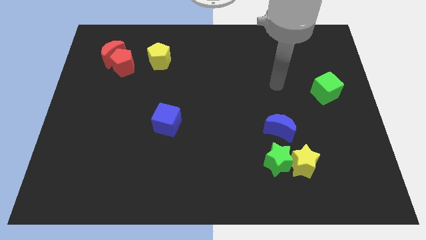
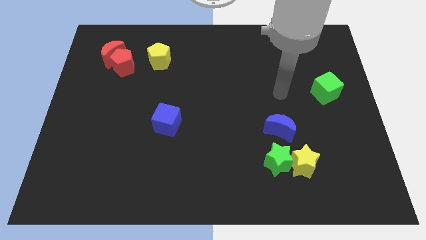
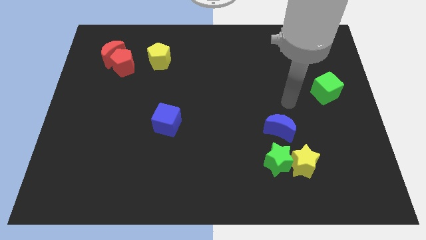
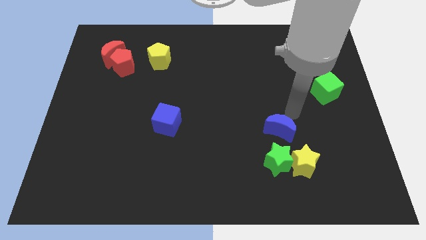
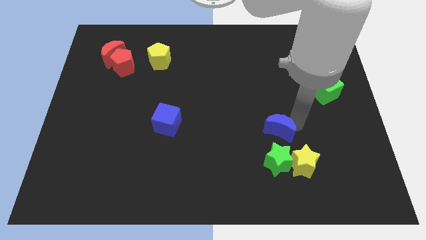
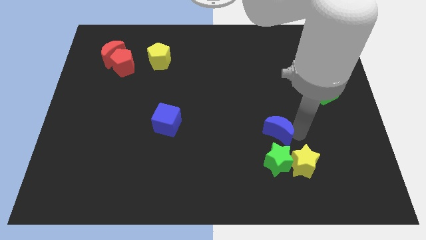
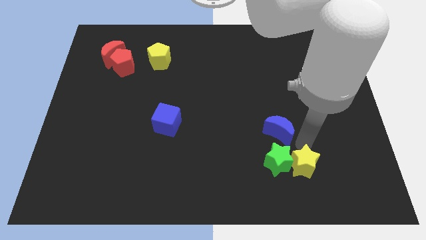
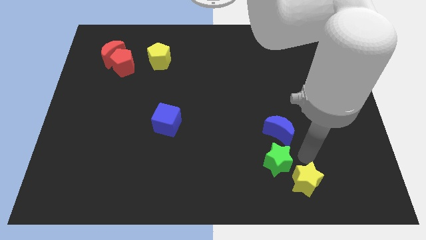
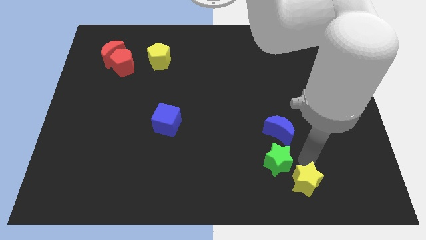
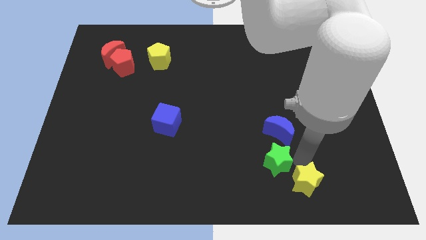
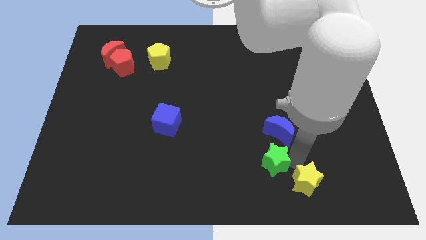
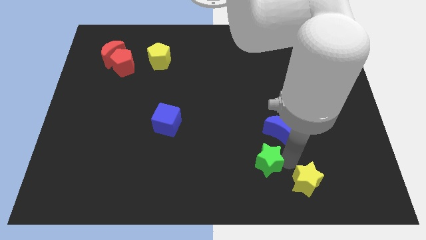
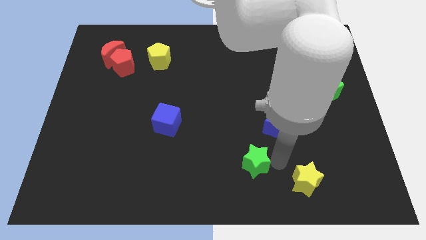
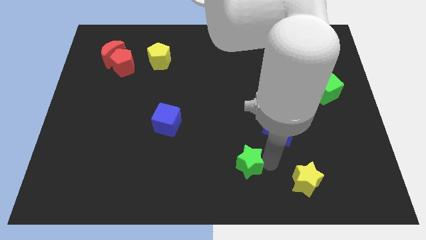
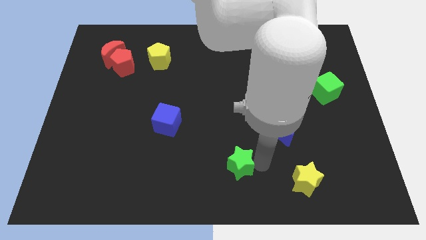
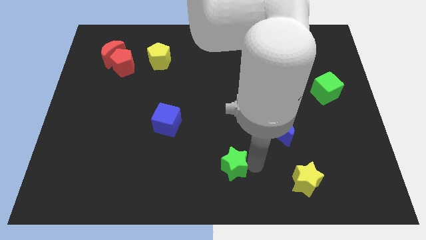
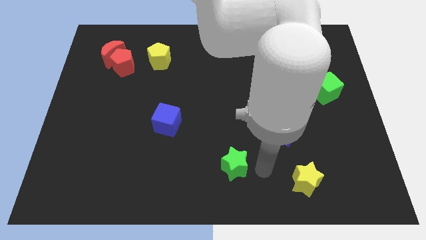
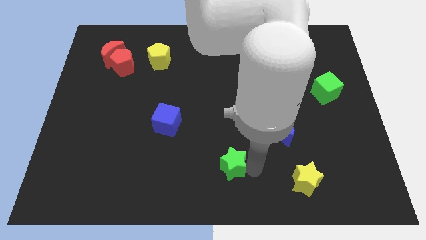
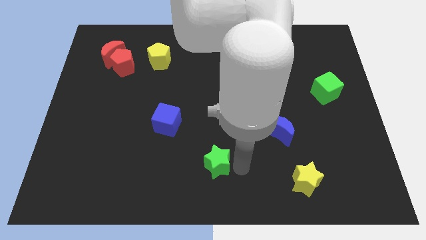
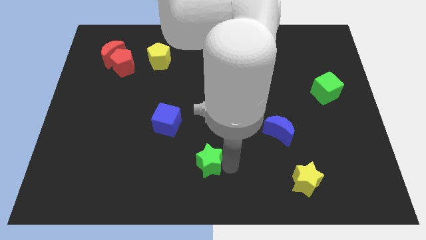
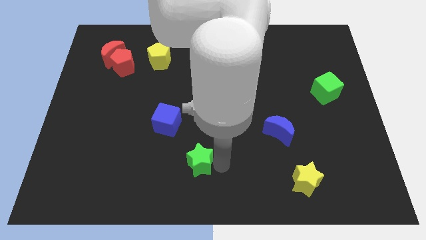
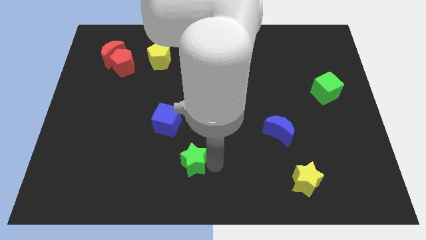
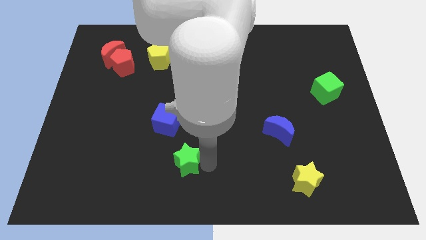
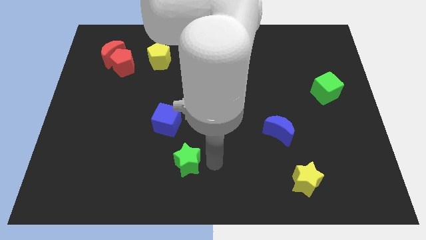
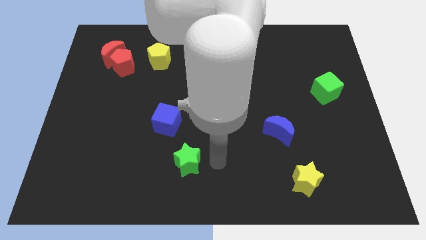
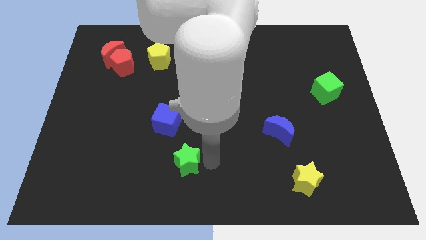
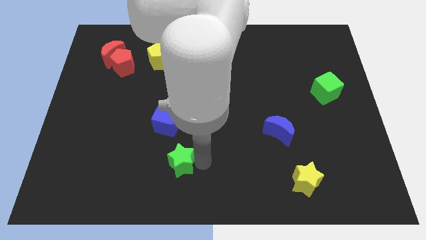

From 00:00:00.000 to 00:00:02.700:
slide the green star to the left

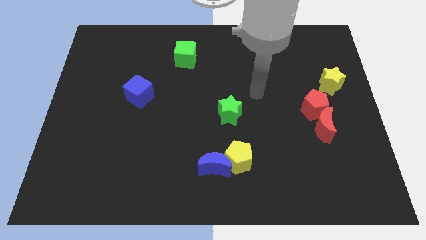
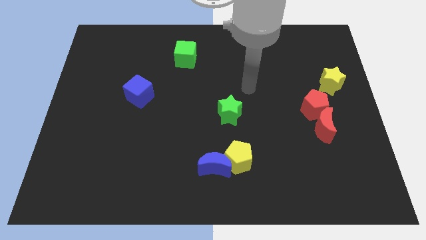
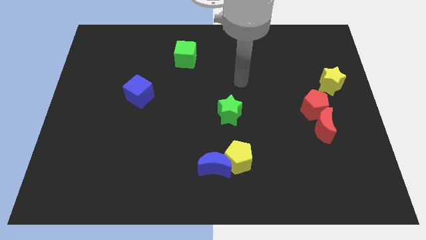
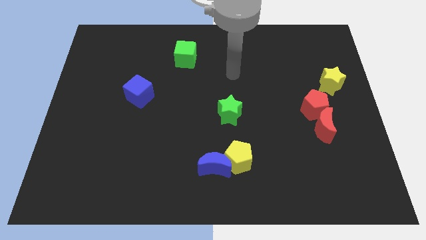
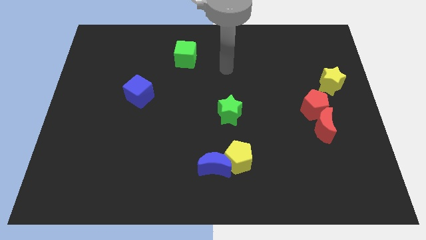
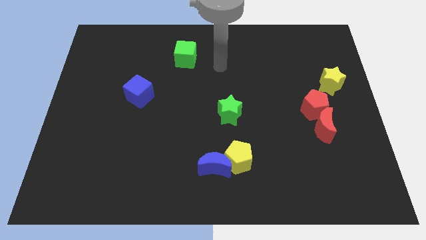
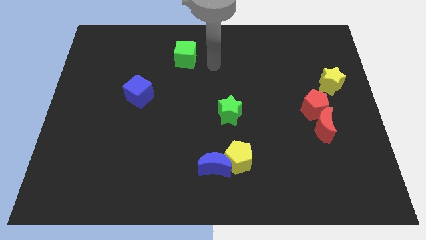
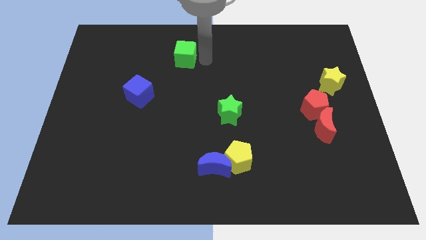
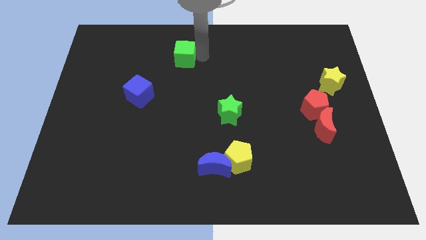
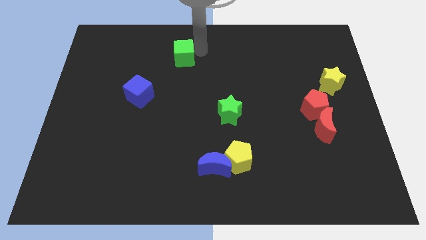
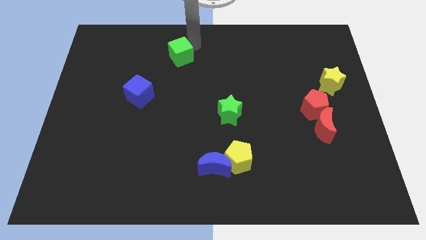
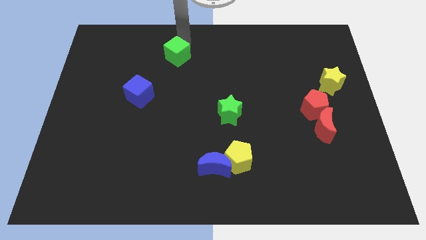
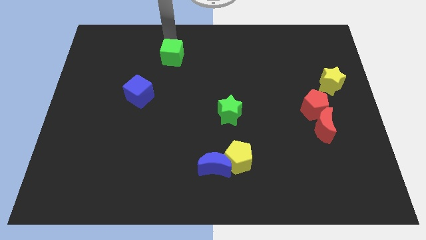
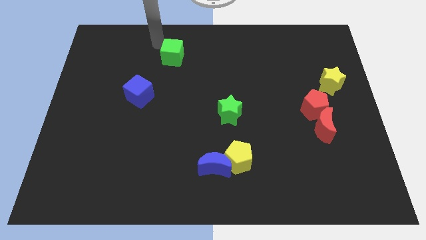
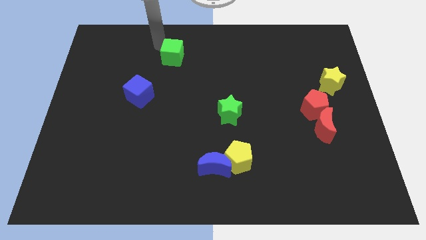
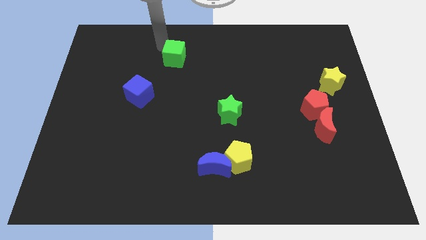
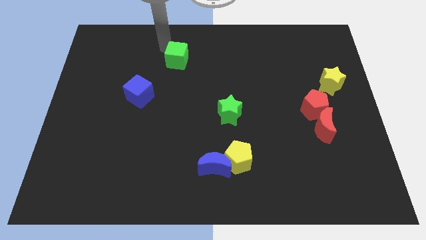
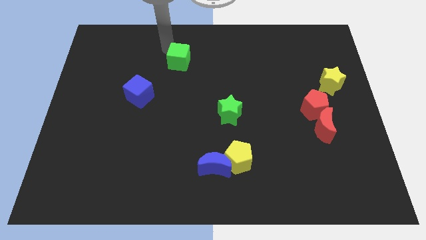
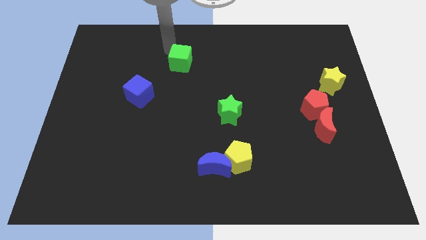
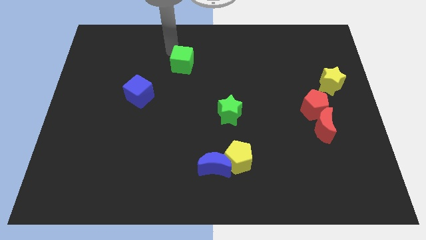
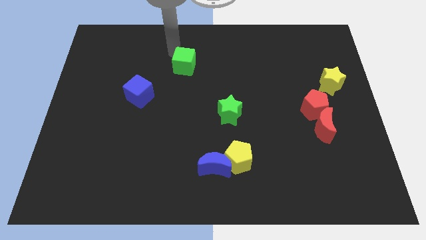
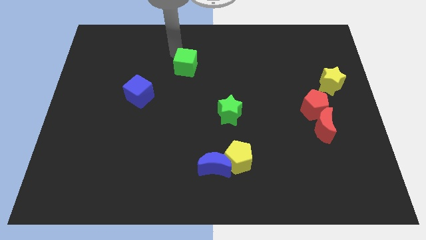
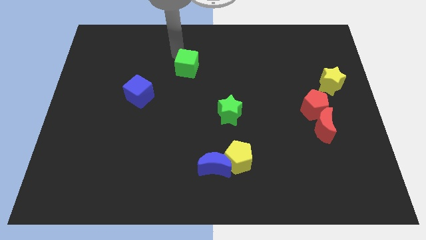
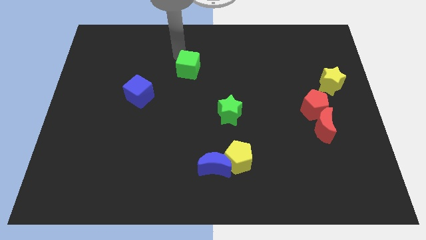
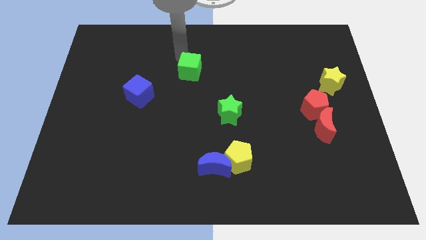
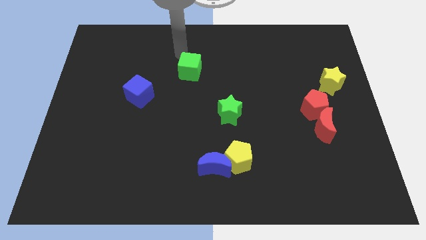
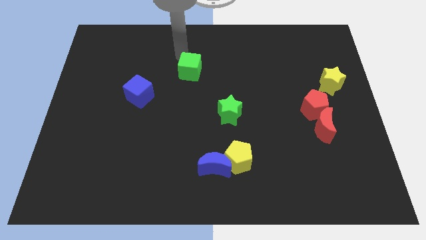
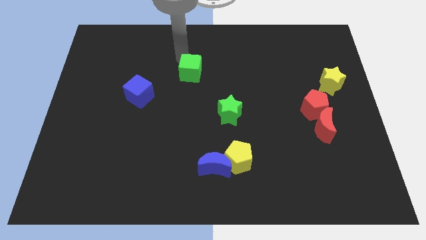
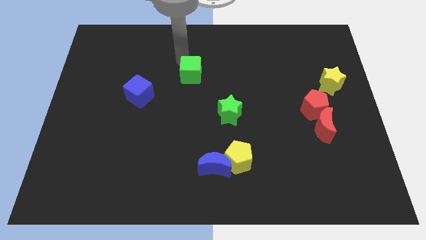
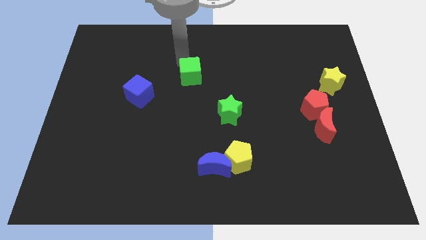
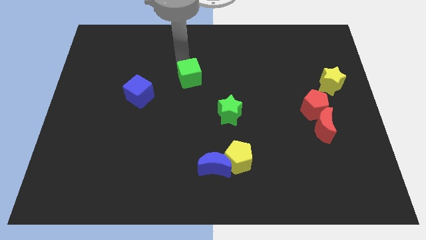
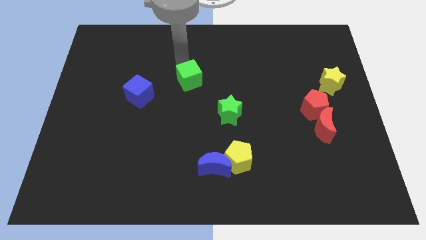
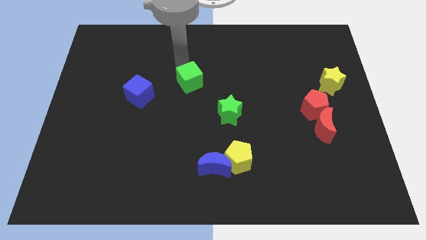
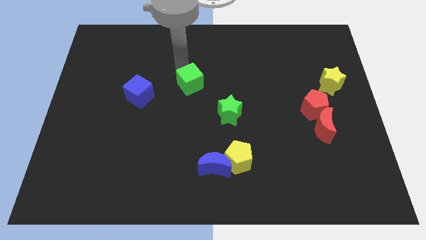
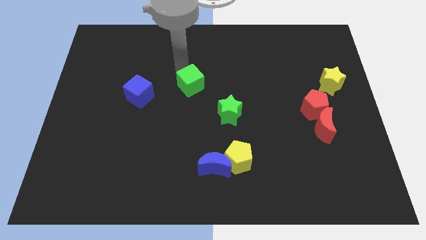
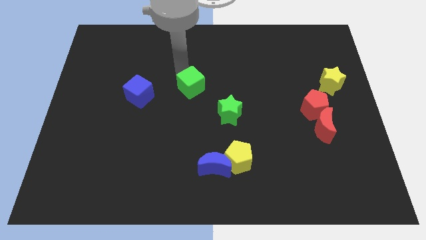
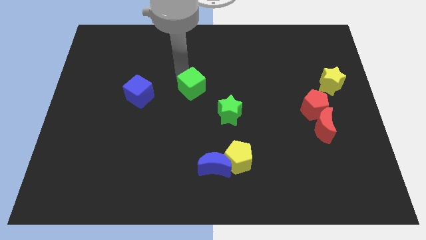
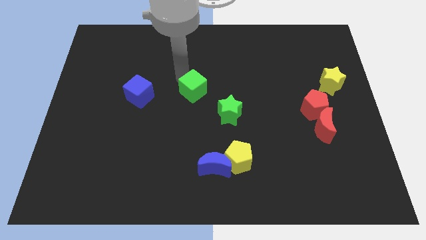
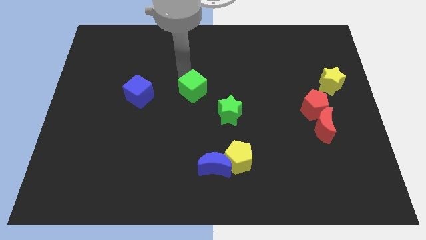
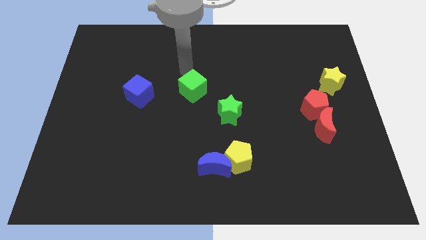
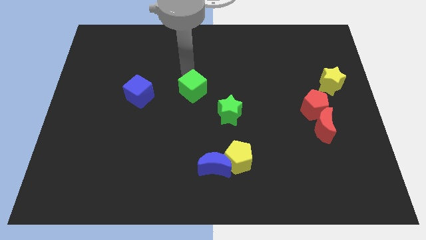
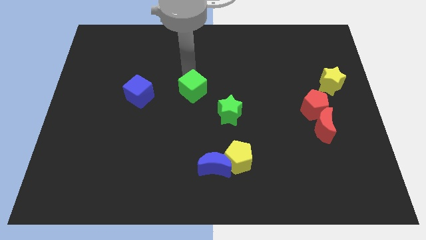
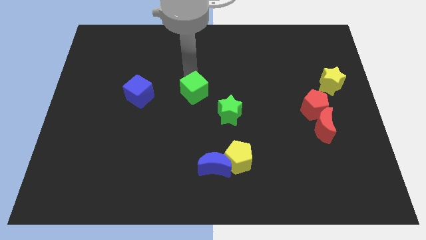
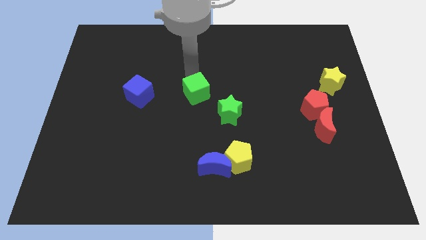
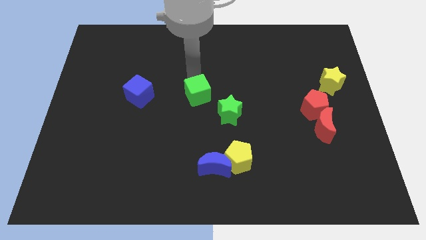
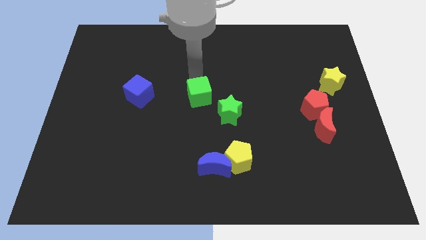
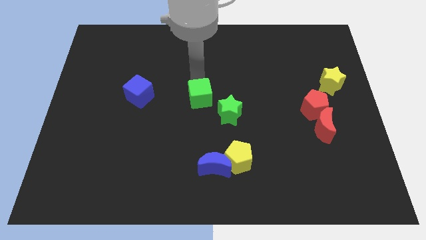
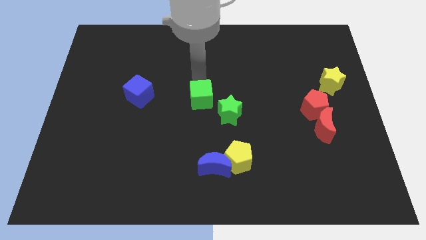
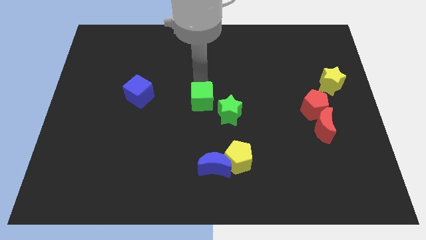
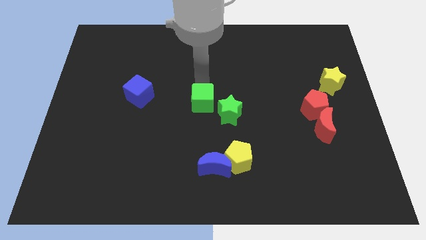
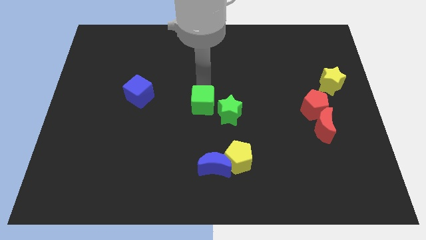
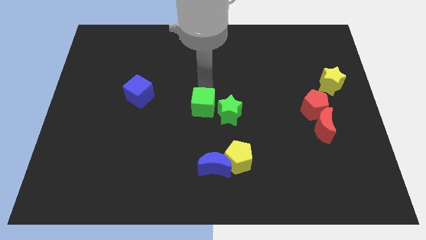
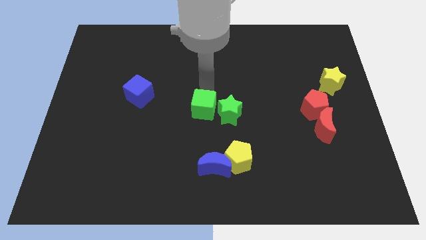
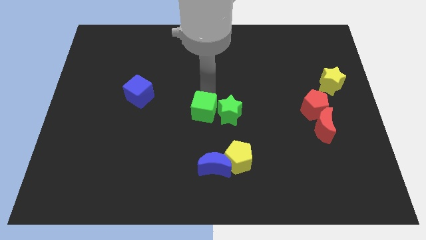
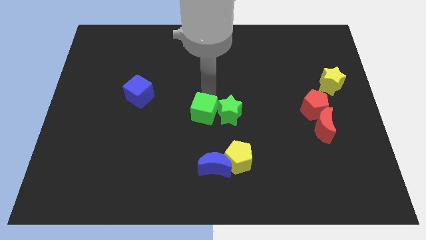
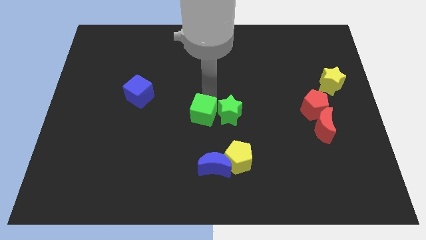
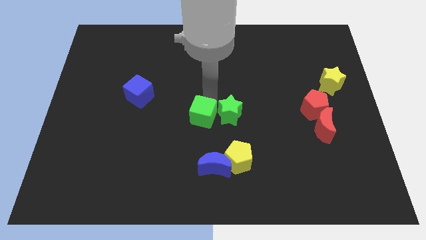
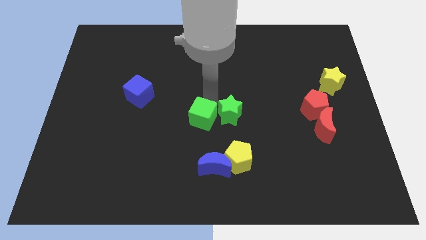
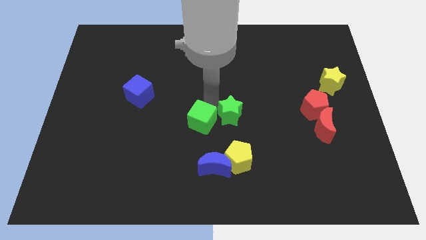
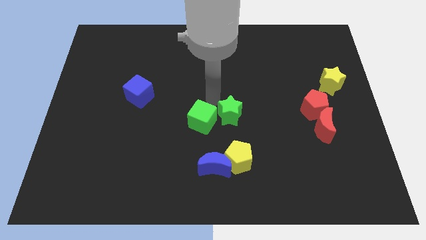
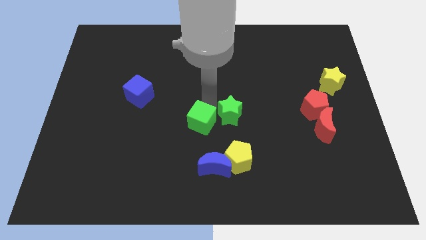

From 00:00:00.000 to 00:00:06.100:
move the green cube down
